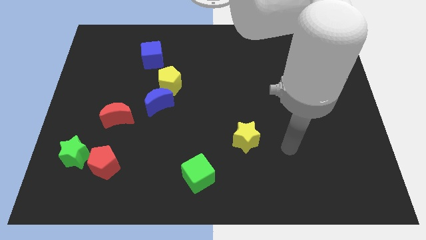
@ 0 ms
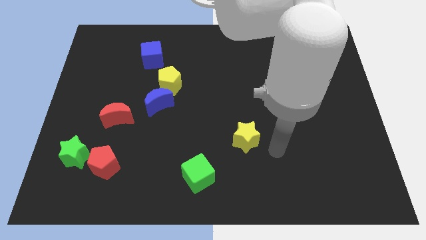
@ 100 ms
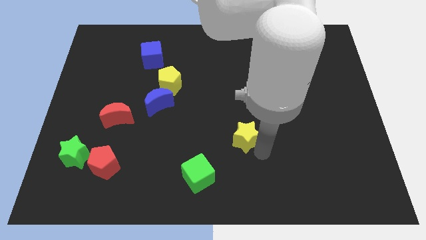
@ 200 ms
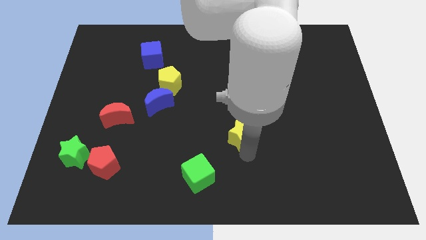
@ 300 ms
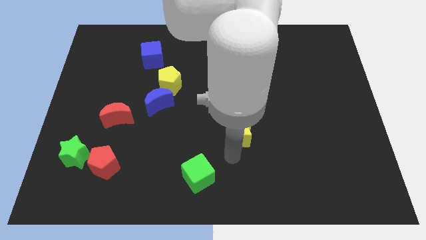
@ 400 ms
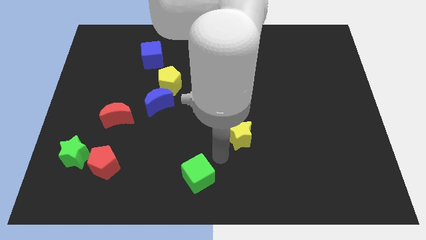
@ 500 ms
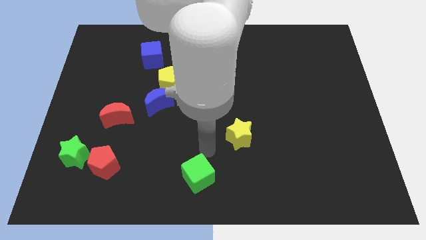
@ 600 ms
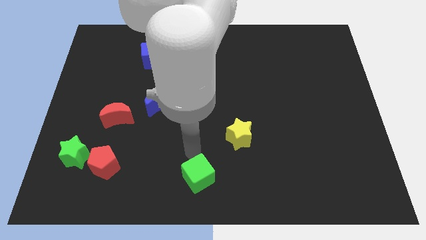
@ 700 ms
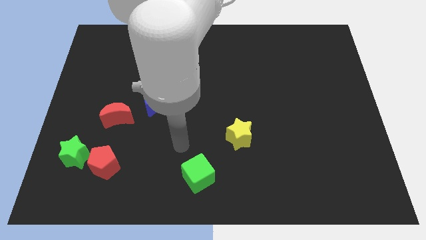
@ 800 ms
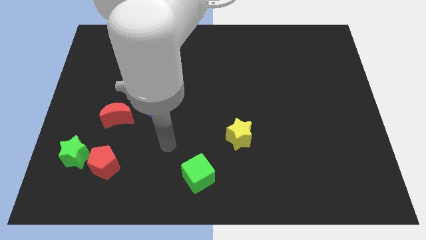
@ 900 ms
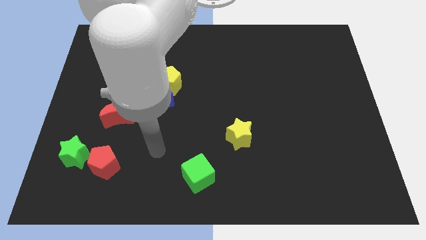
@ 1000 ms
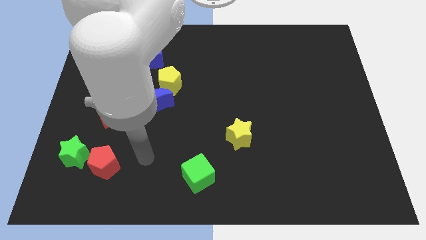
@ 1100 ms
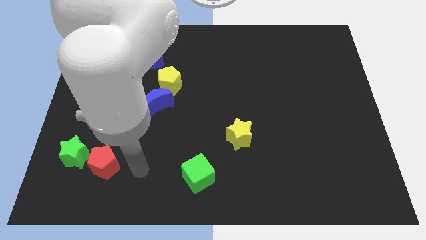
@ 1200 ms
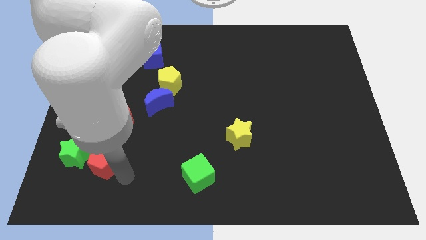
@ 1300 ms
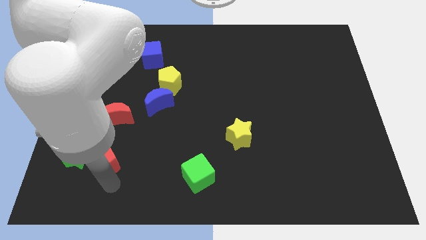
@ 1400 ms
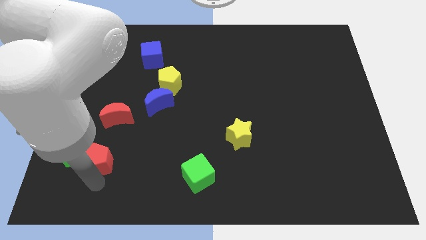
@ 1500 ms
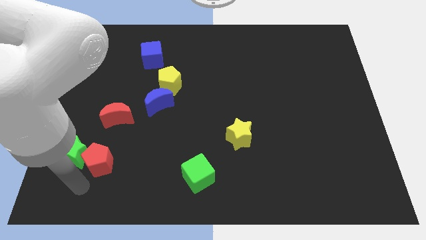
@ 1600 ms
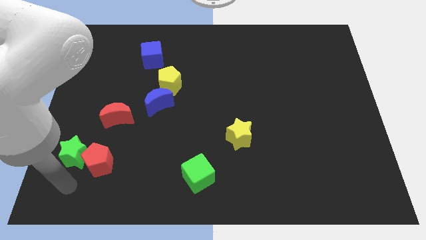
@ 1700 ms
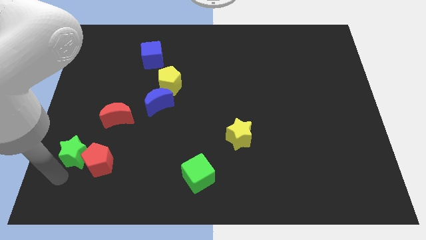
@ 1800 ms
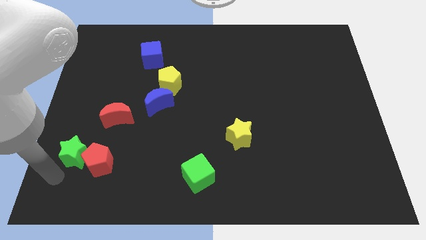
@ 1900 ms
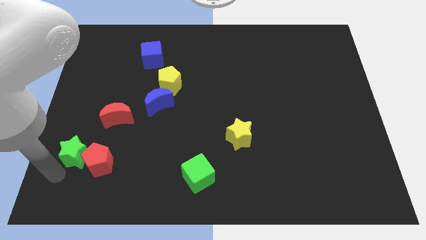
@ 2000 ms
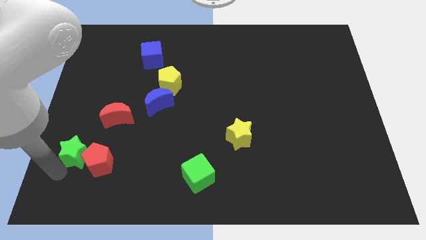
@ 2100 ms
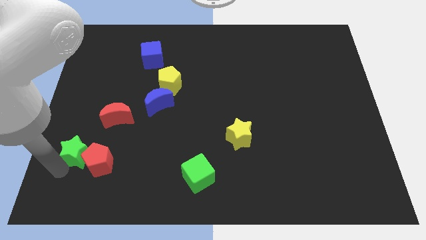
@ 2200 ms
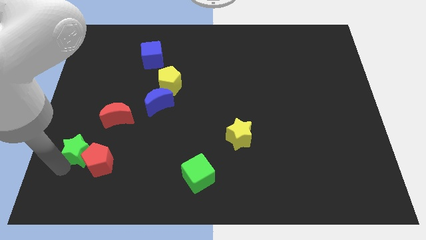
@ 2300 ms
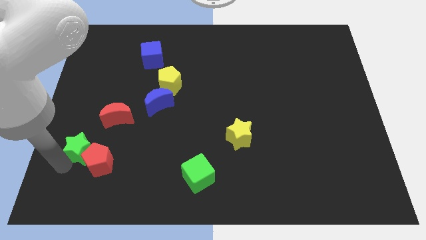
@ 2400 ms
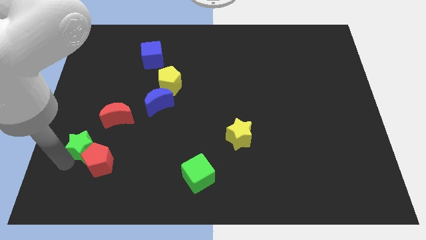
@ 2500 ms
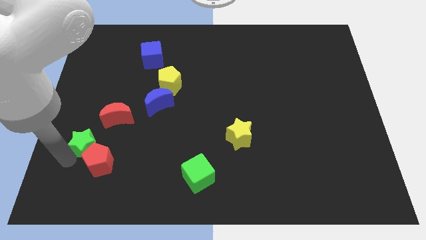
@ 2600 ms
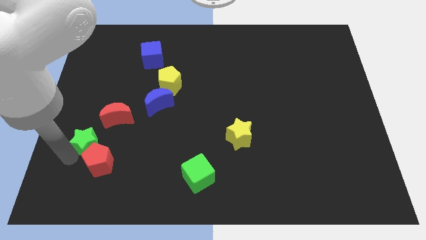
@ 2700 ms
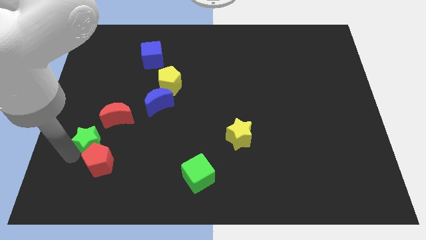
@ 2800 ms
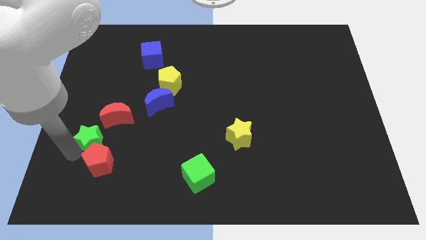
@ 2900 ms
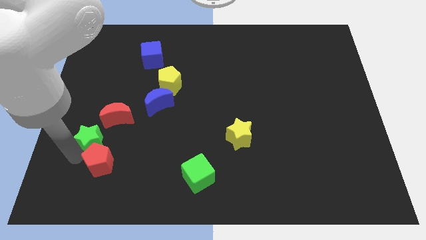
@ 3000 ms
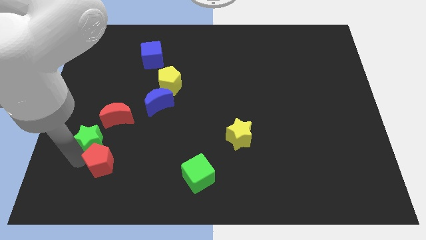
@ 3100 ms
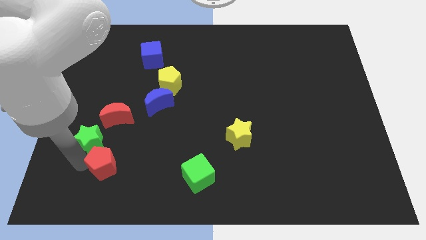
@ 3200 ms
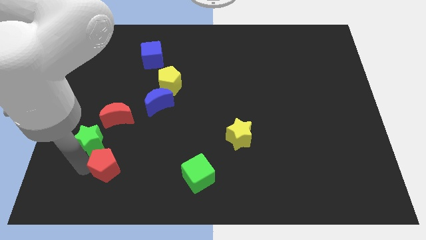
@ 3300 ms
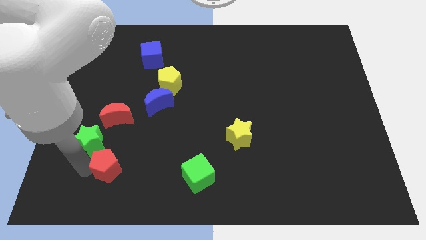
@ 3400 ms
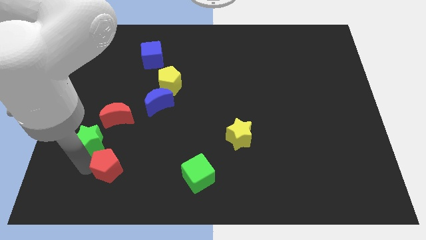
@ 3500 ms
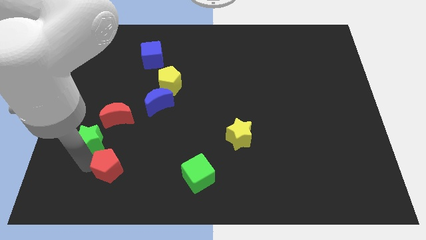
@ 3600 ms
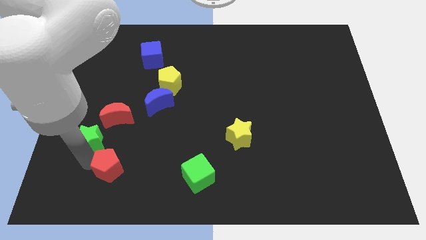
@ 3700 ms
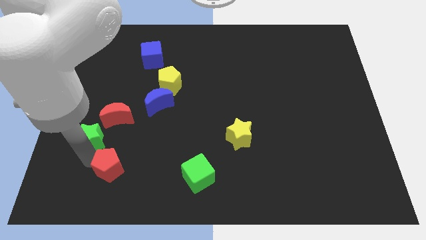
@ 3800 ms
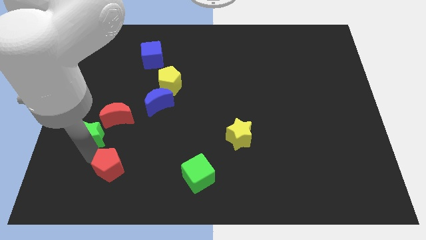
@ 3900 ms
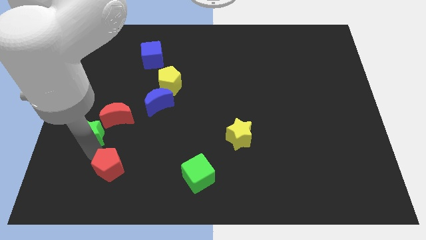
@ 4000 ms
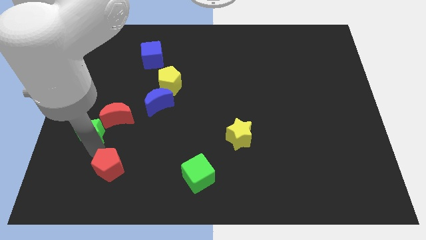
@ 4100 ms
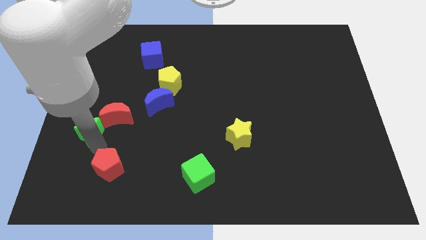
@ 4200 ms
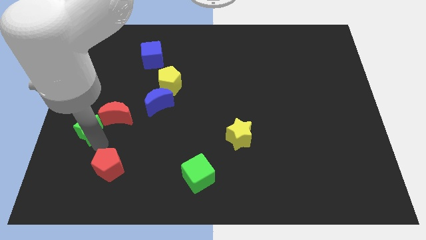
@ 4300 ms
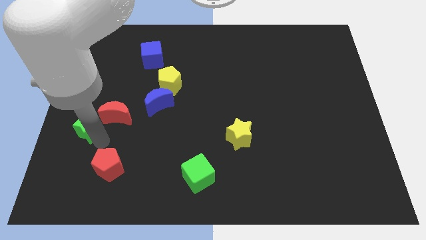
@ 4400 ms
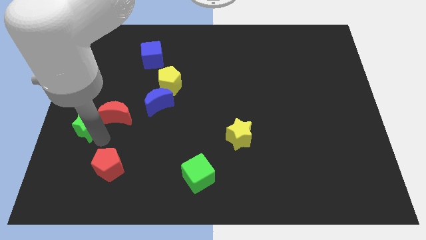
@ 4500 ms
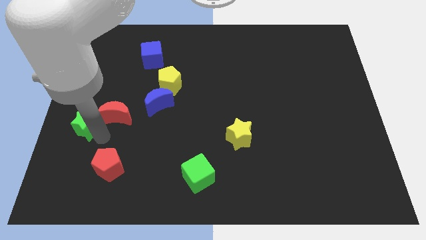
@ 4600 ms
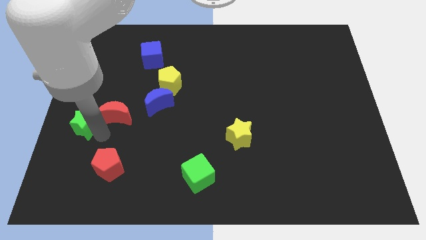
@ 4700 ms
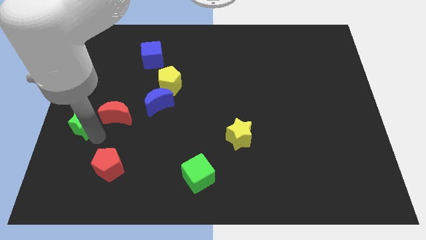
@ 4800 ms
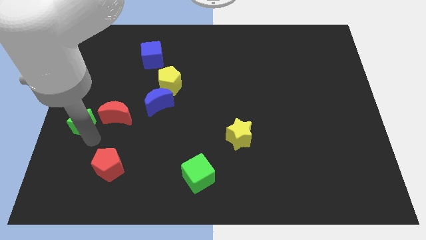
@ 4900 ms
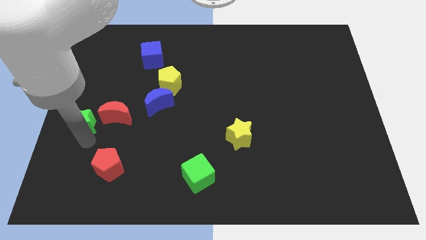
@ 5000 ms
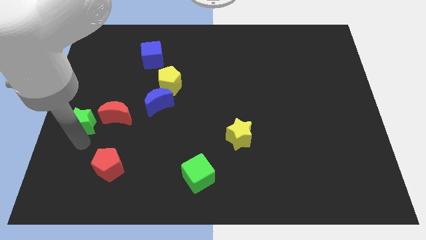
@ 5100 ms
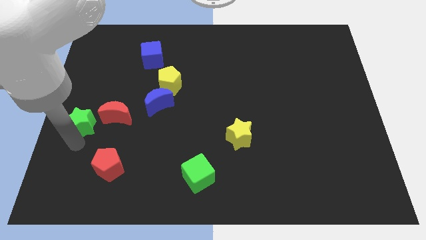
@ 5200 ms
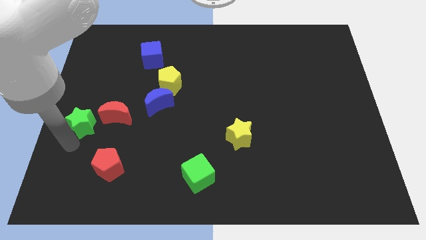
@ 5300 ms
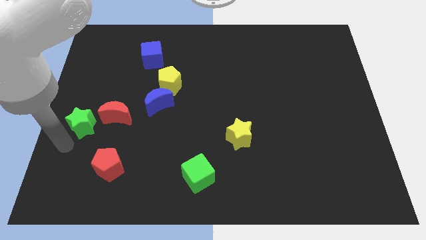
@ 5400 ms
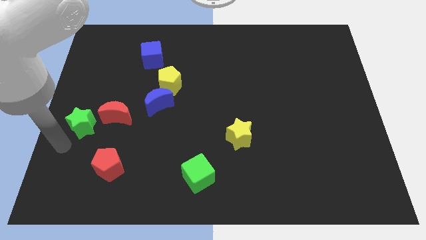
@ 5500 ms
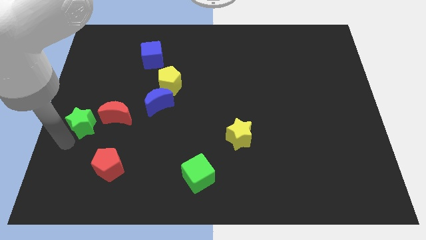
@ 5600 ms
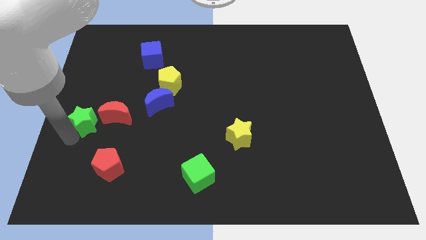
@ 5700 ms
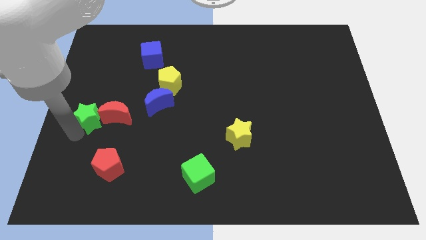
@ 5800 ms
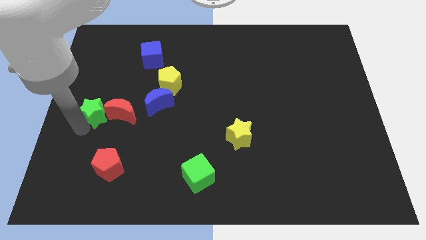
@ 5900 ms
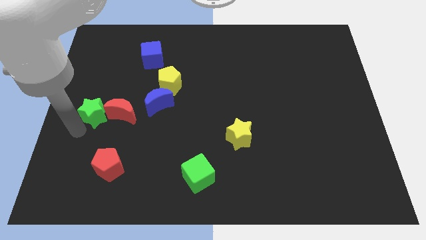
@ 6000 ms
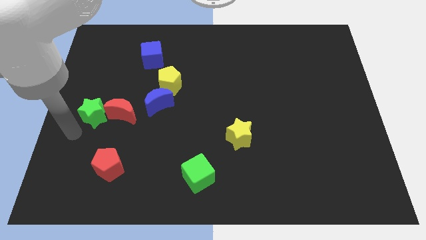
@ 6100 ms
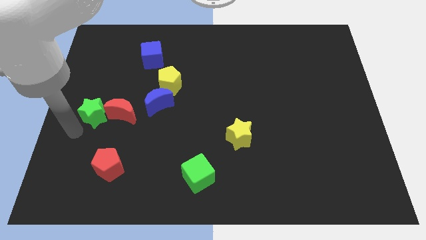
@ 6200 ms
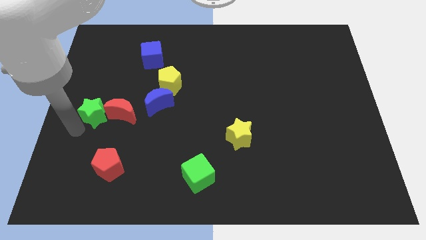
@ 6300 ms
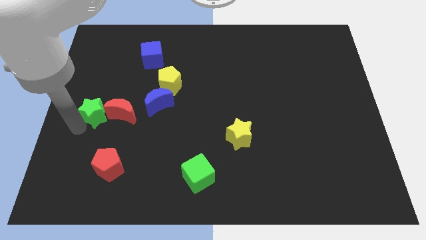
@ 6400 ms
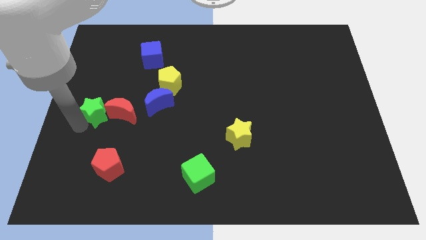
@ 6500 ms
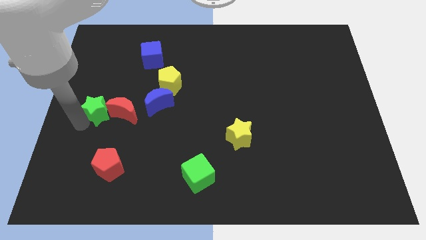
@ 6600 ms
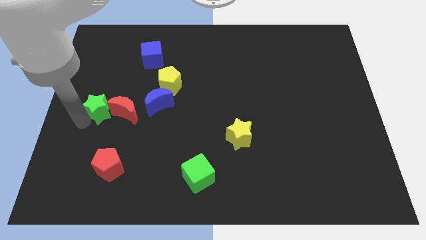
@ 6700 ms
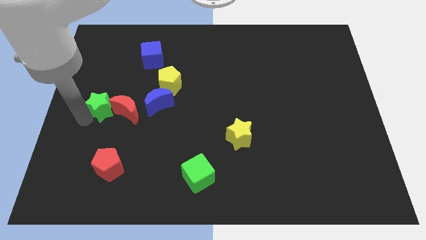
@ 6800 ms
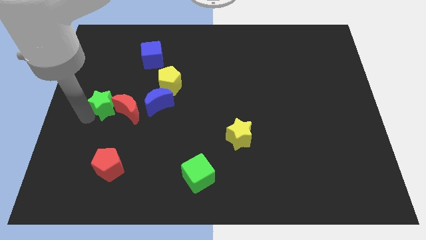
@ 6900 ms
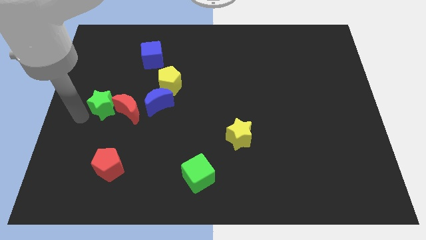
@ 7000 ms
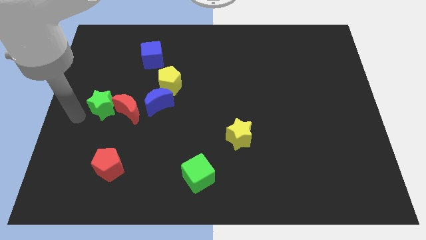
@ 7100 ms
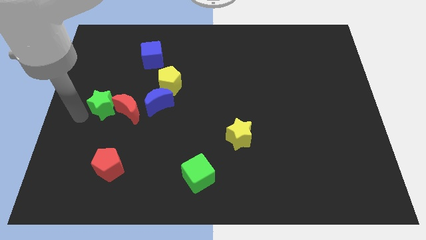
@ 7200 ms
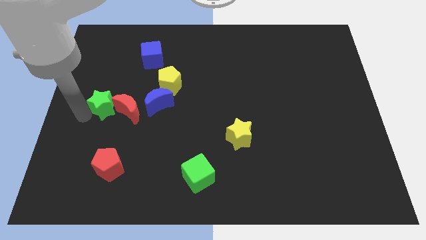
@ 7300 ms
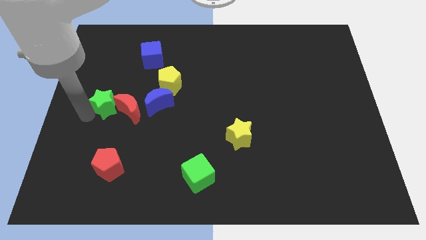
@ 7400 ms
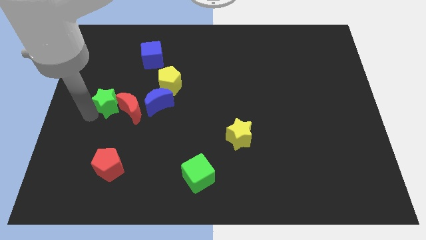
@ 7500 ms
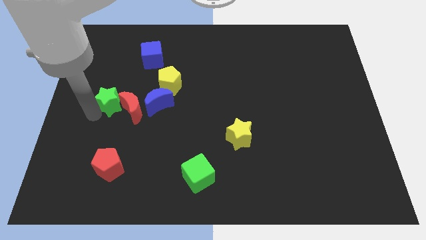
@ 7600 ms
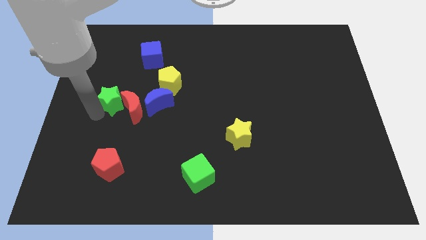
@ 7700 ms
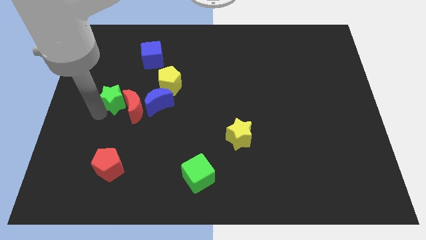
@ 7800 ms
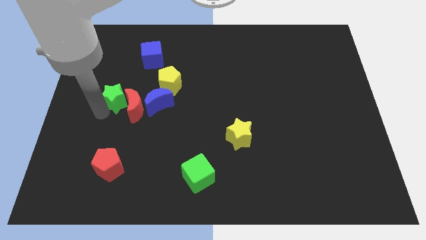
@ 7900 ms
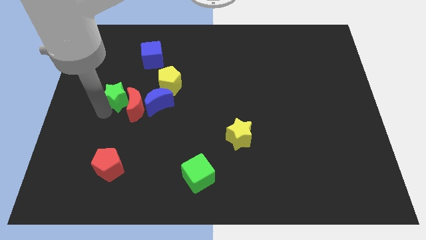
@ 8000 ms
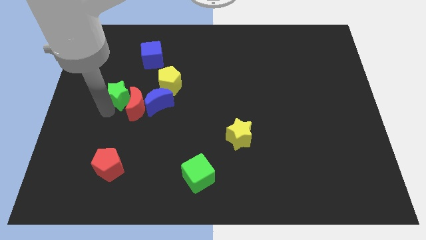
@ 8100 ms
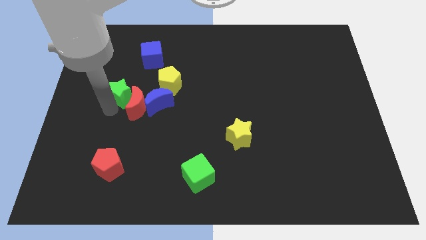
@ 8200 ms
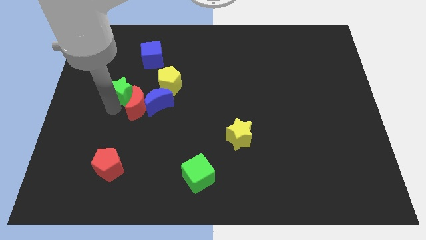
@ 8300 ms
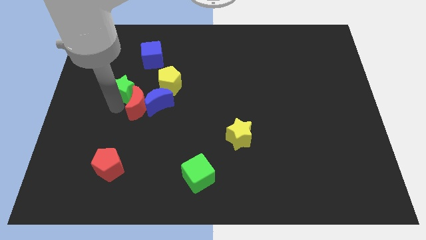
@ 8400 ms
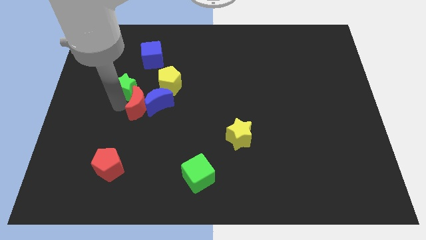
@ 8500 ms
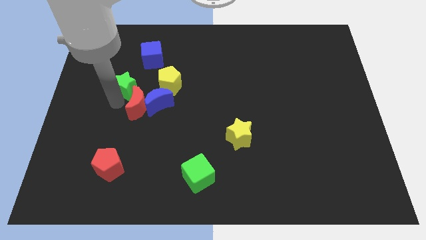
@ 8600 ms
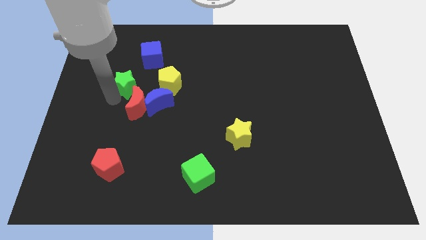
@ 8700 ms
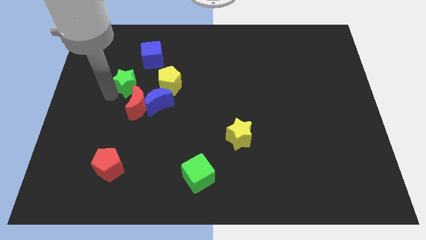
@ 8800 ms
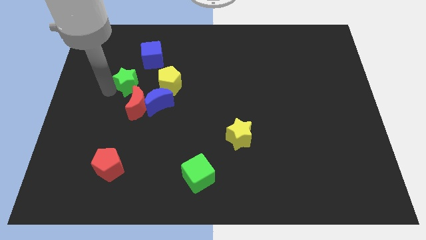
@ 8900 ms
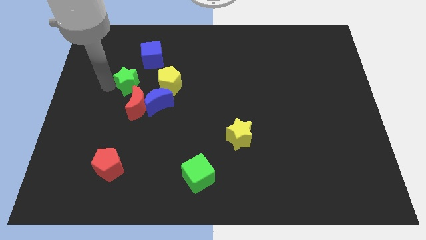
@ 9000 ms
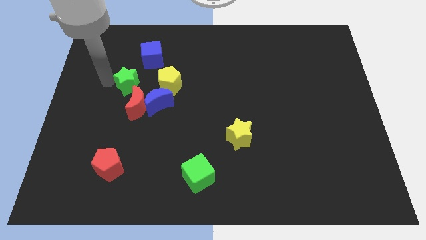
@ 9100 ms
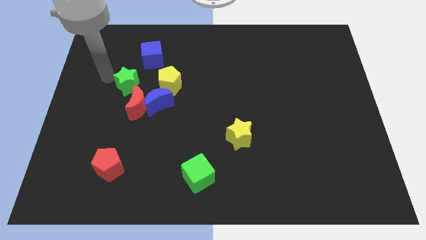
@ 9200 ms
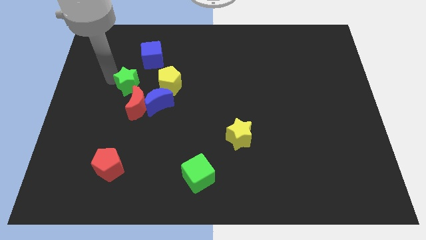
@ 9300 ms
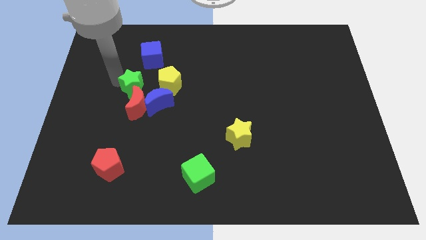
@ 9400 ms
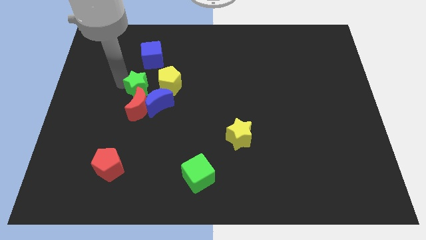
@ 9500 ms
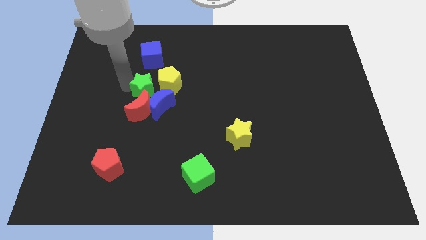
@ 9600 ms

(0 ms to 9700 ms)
push the green star close to the yellow pentagon
